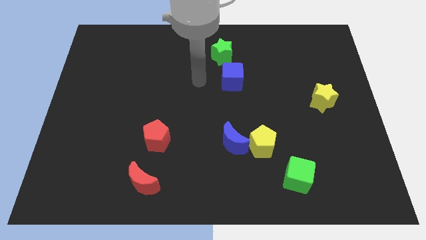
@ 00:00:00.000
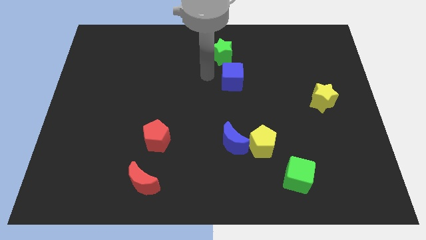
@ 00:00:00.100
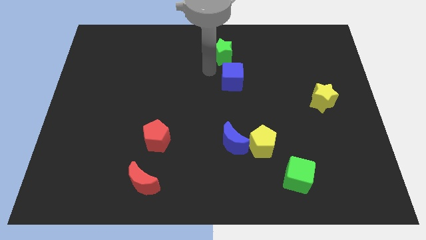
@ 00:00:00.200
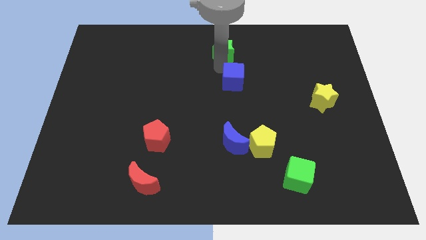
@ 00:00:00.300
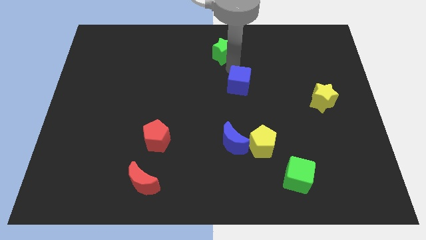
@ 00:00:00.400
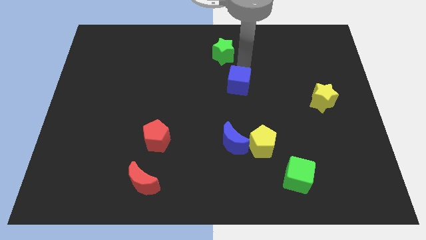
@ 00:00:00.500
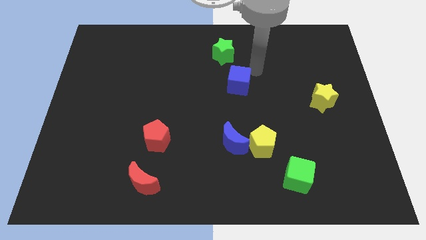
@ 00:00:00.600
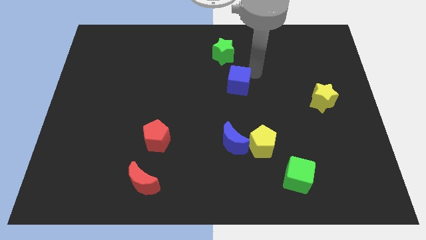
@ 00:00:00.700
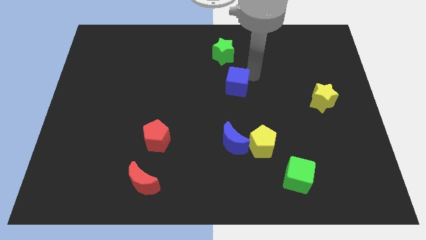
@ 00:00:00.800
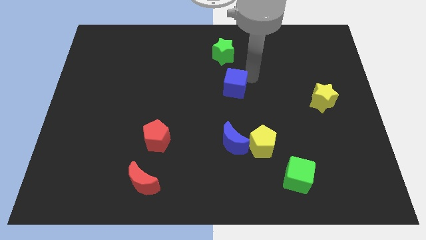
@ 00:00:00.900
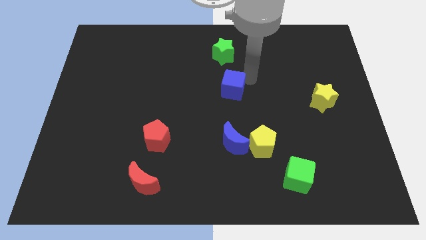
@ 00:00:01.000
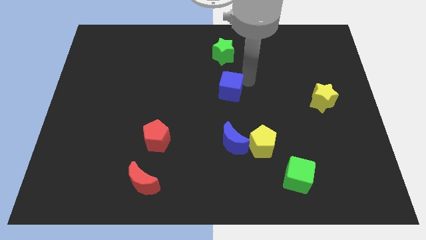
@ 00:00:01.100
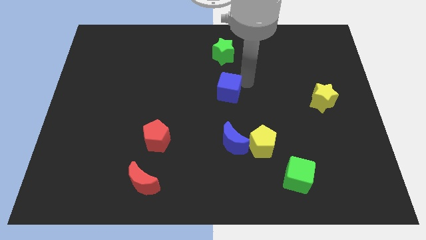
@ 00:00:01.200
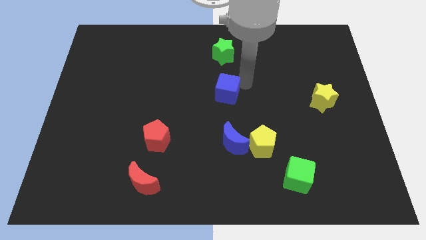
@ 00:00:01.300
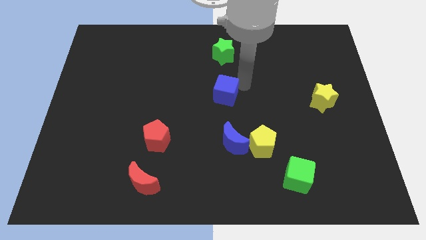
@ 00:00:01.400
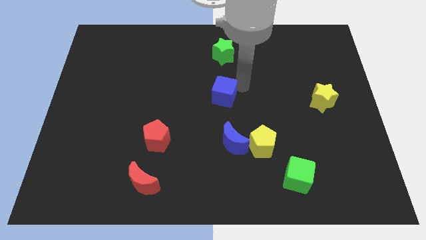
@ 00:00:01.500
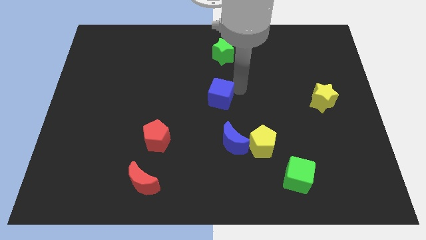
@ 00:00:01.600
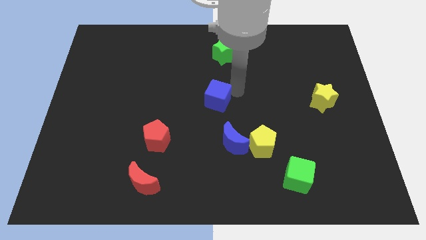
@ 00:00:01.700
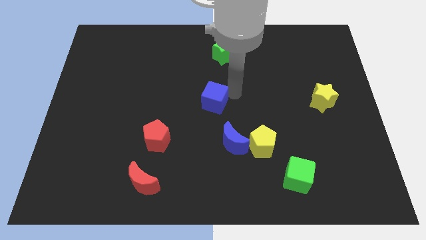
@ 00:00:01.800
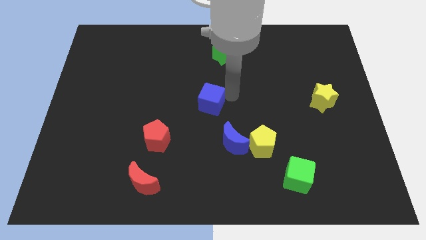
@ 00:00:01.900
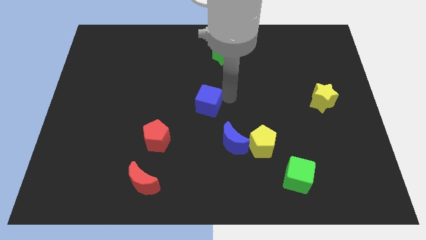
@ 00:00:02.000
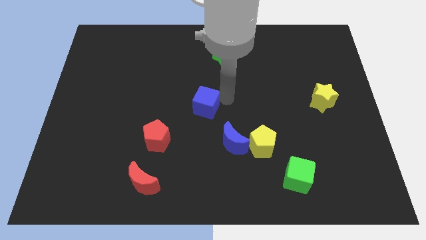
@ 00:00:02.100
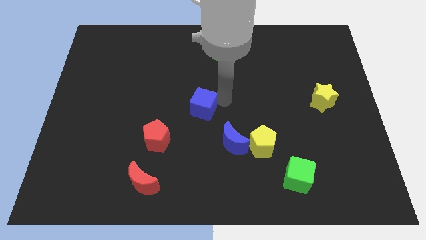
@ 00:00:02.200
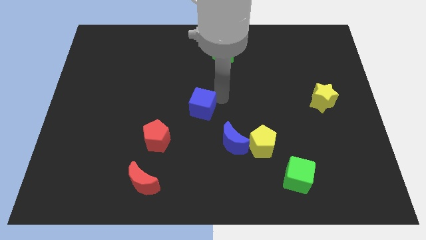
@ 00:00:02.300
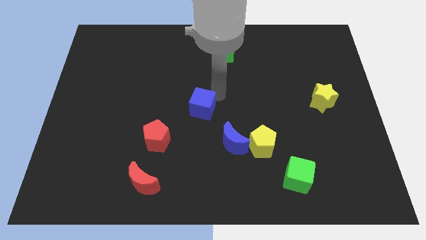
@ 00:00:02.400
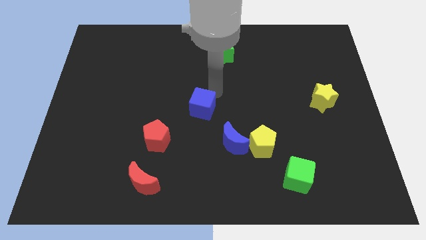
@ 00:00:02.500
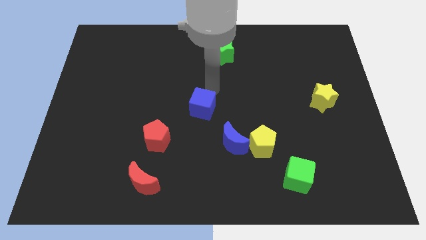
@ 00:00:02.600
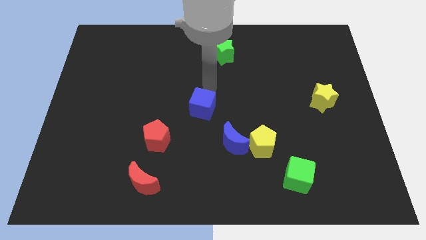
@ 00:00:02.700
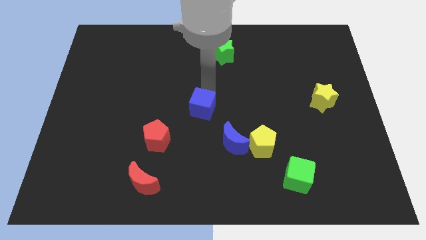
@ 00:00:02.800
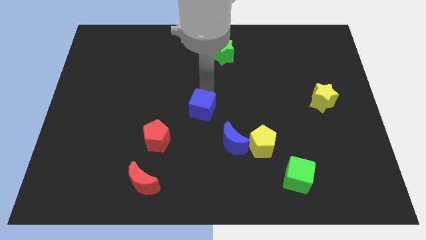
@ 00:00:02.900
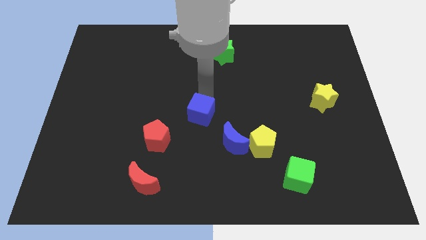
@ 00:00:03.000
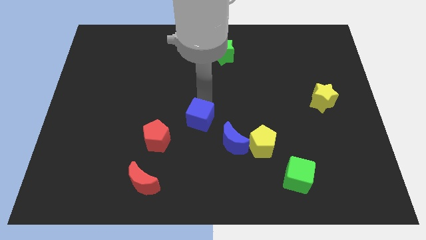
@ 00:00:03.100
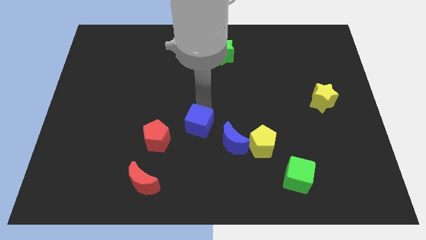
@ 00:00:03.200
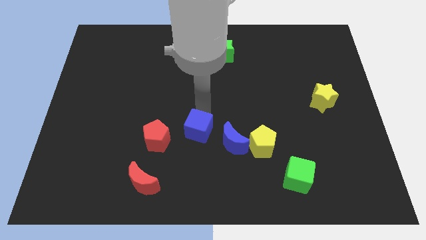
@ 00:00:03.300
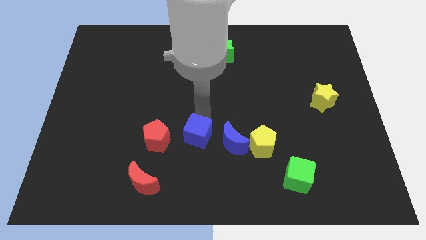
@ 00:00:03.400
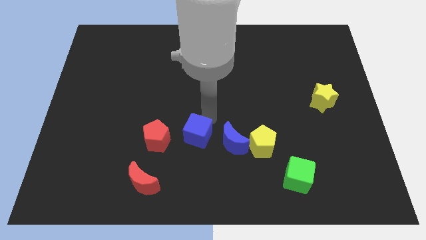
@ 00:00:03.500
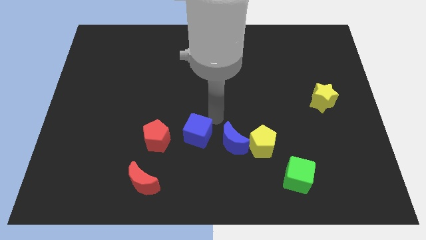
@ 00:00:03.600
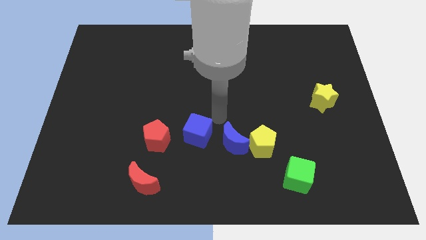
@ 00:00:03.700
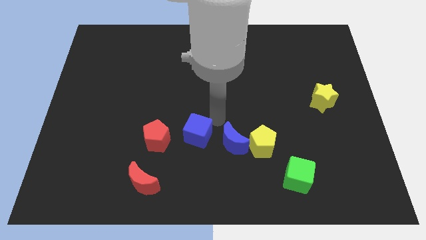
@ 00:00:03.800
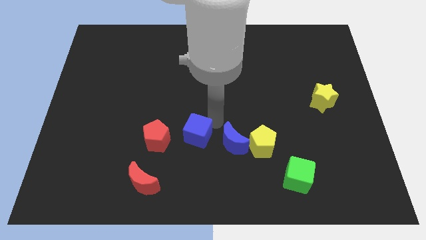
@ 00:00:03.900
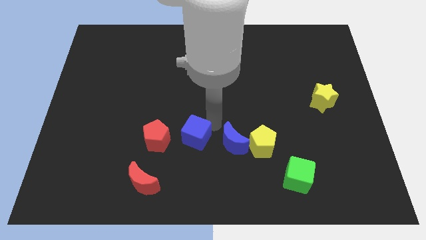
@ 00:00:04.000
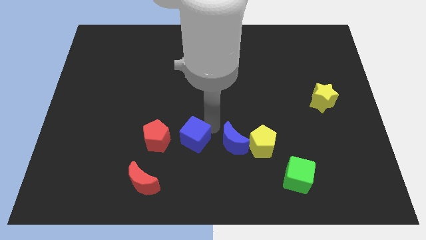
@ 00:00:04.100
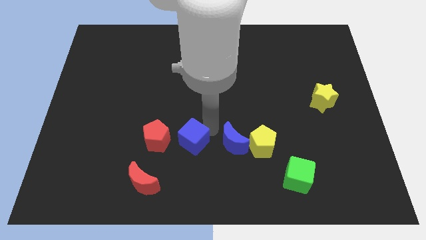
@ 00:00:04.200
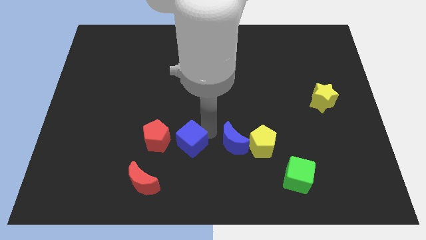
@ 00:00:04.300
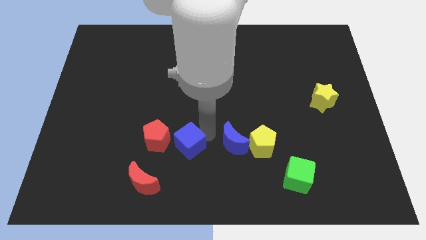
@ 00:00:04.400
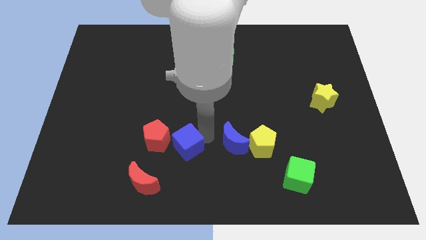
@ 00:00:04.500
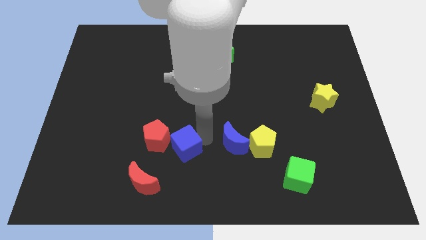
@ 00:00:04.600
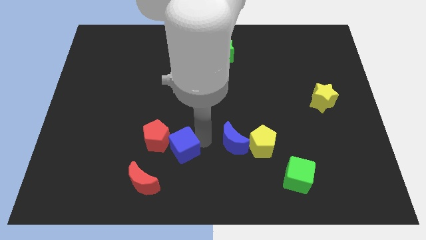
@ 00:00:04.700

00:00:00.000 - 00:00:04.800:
move the blue cube downwards and left diagonally

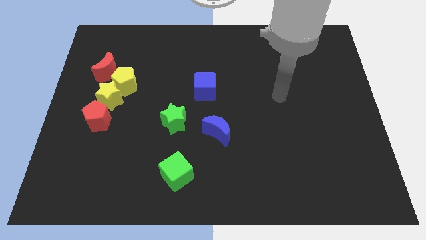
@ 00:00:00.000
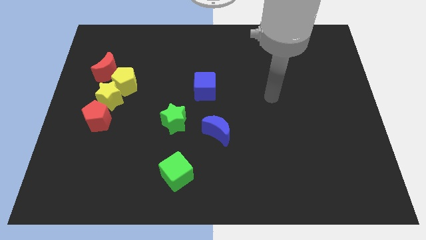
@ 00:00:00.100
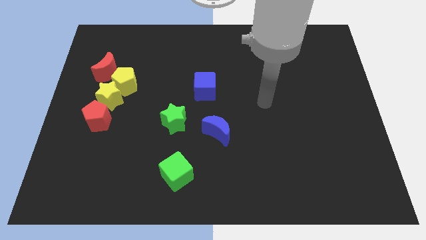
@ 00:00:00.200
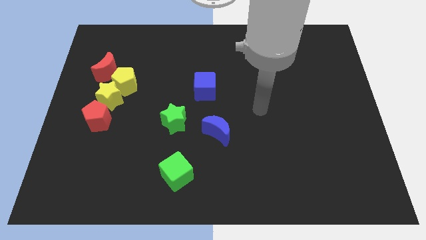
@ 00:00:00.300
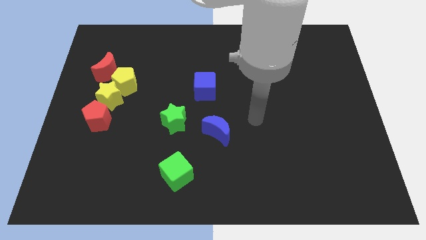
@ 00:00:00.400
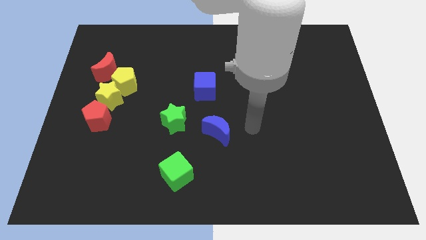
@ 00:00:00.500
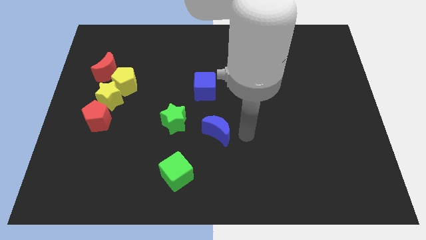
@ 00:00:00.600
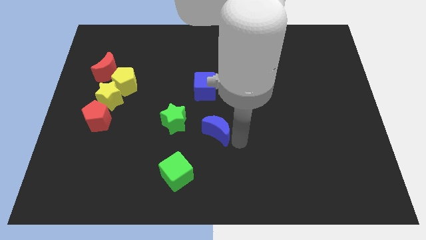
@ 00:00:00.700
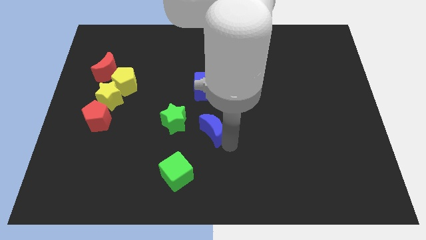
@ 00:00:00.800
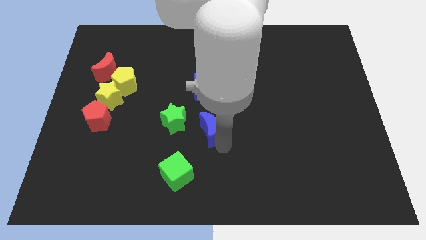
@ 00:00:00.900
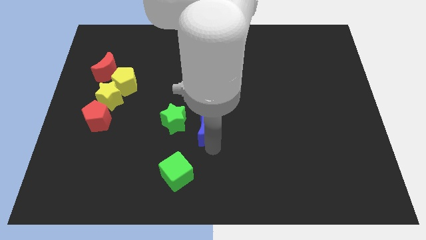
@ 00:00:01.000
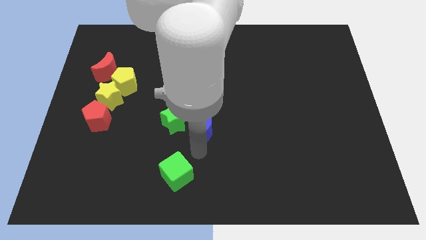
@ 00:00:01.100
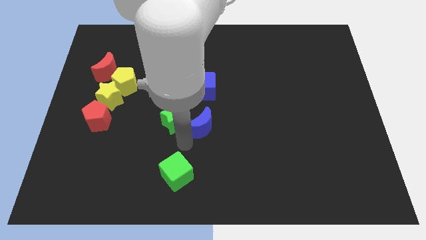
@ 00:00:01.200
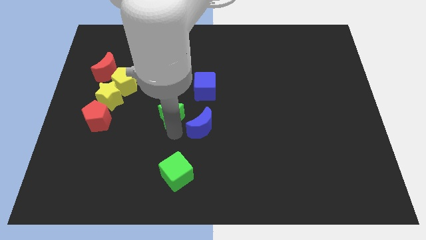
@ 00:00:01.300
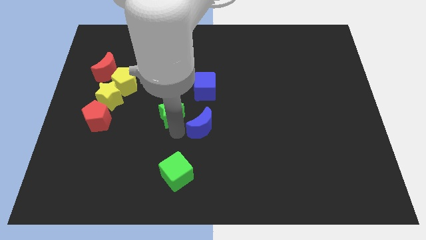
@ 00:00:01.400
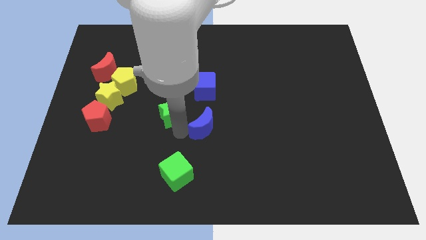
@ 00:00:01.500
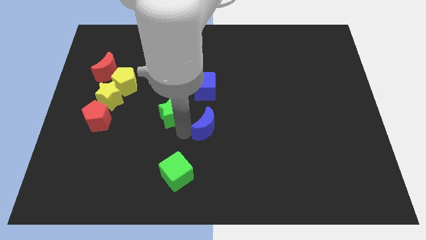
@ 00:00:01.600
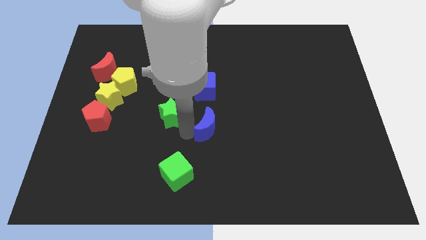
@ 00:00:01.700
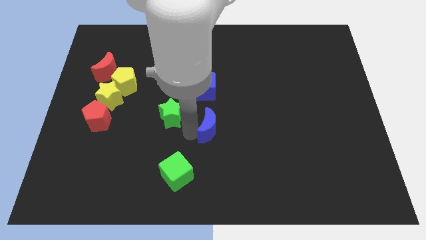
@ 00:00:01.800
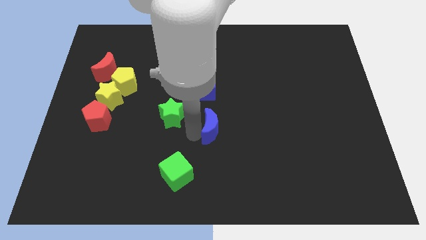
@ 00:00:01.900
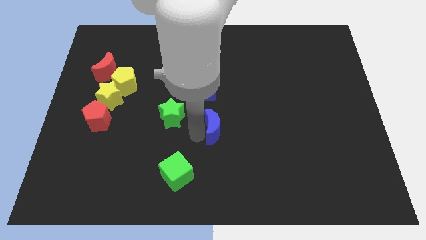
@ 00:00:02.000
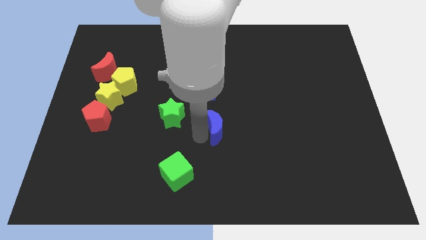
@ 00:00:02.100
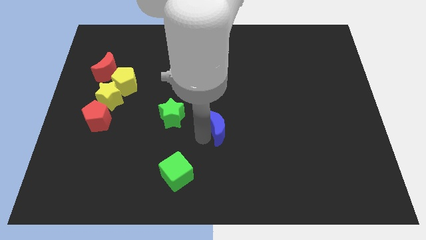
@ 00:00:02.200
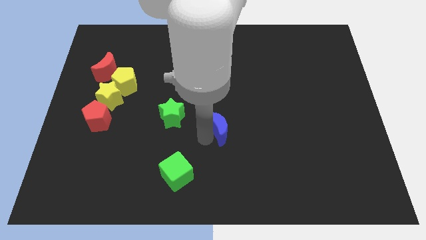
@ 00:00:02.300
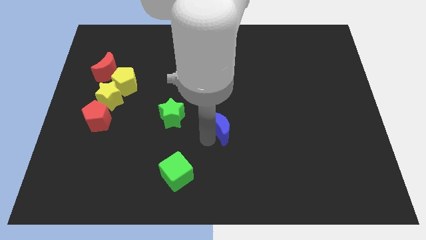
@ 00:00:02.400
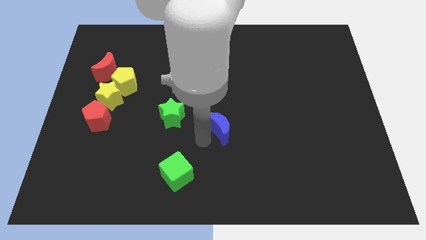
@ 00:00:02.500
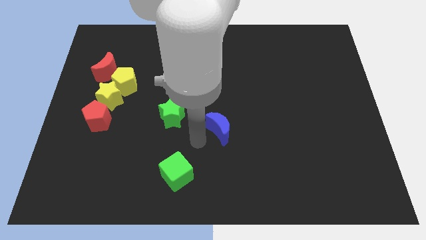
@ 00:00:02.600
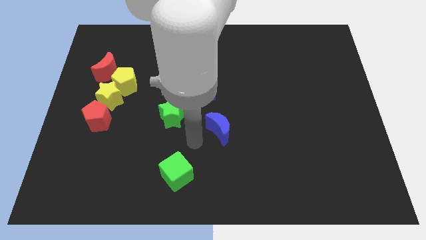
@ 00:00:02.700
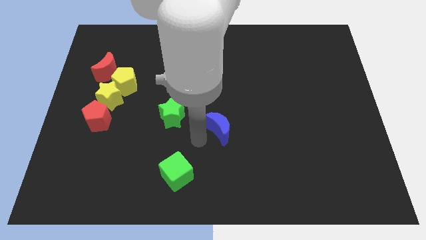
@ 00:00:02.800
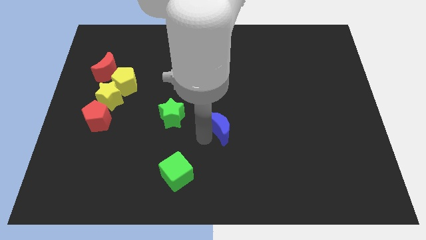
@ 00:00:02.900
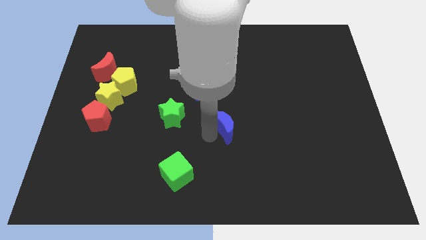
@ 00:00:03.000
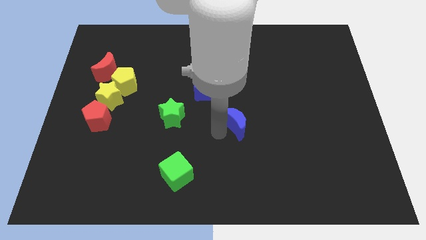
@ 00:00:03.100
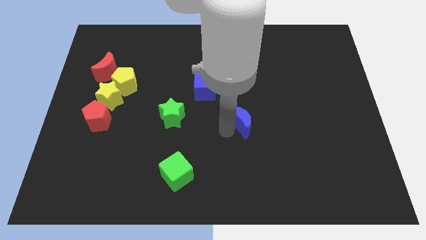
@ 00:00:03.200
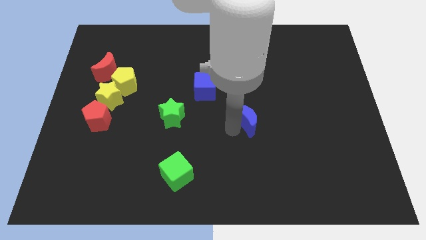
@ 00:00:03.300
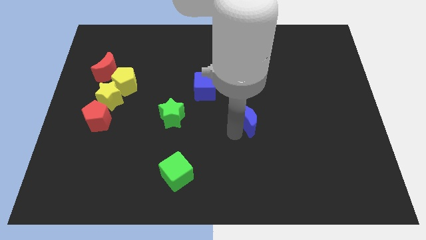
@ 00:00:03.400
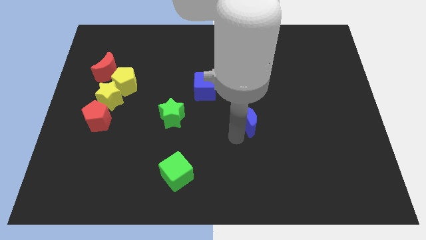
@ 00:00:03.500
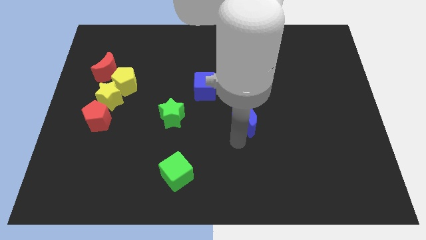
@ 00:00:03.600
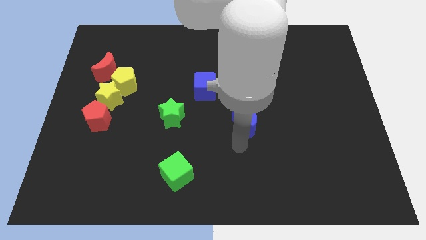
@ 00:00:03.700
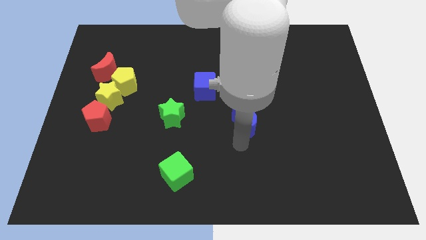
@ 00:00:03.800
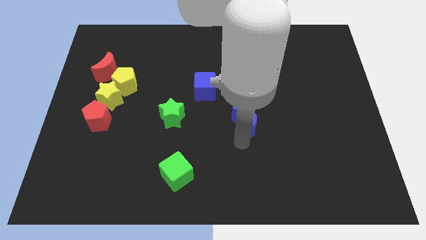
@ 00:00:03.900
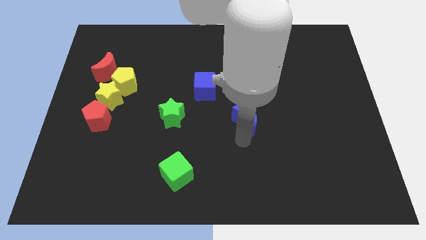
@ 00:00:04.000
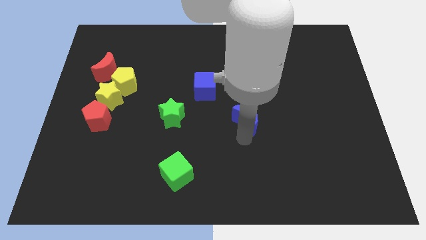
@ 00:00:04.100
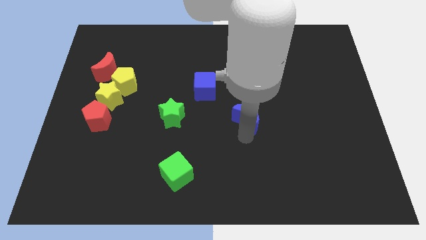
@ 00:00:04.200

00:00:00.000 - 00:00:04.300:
slightly move the blue moon upwards and to the right
